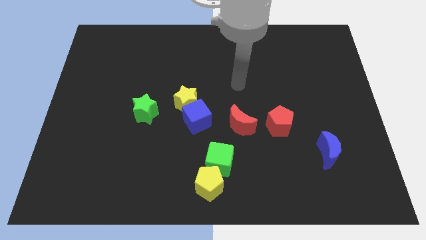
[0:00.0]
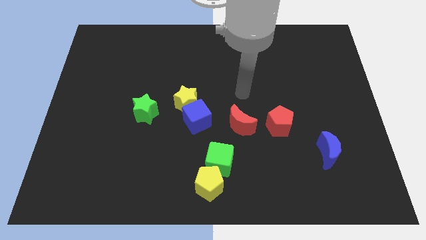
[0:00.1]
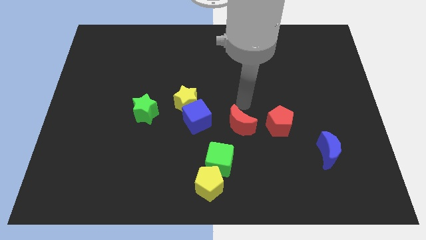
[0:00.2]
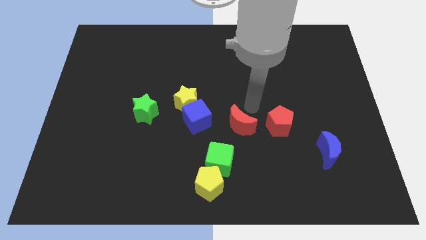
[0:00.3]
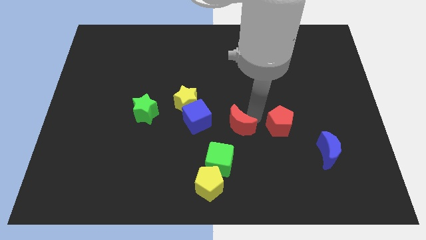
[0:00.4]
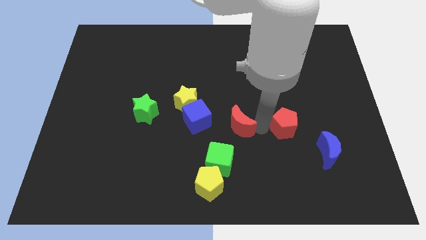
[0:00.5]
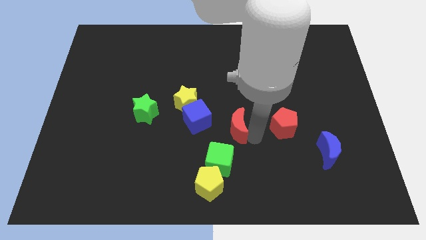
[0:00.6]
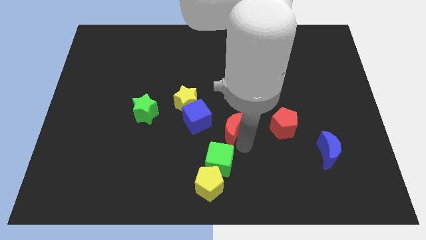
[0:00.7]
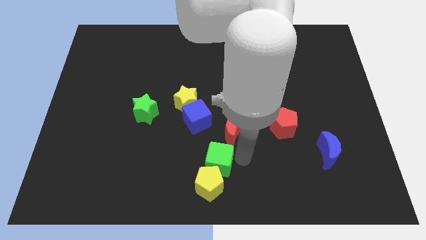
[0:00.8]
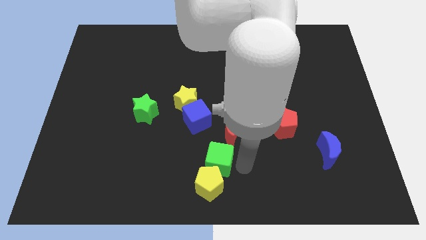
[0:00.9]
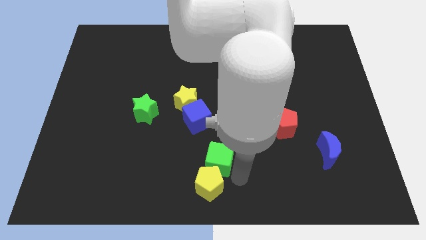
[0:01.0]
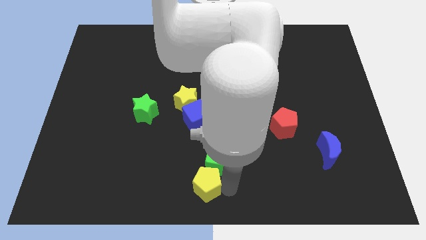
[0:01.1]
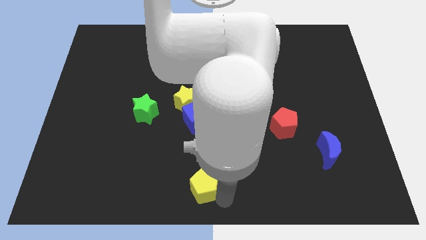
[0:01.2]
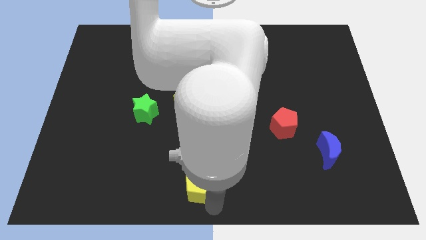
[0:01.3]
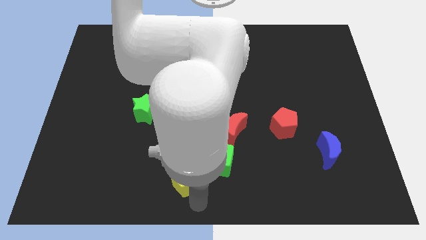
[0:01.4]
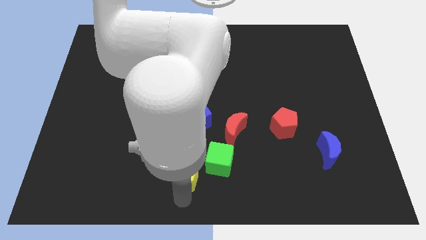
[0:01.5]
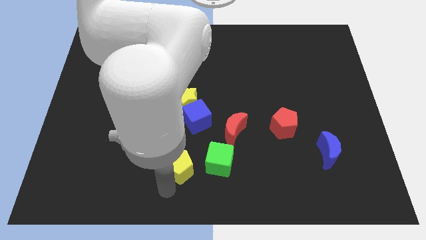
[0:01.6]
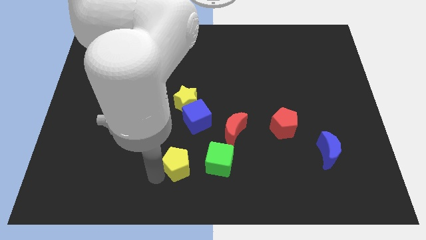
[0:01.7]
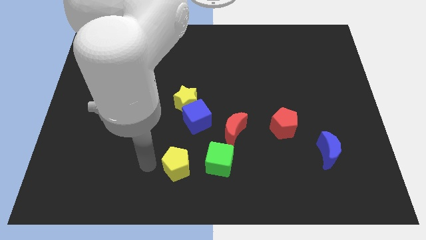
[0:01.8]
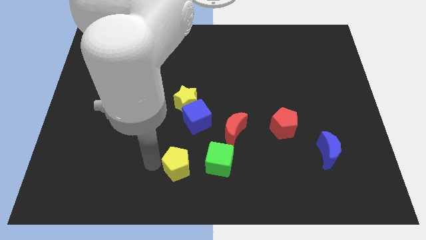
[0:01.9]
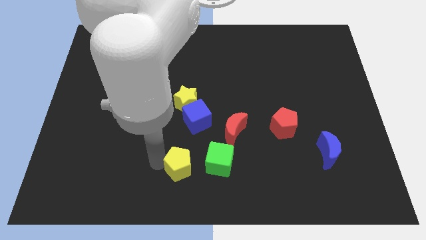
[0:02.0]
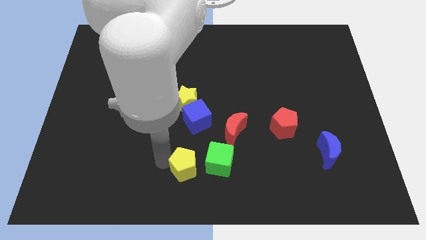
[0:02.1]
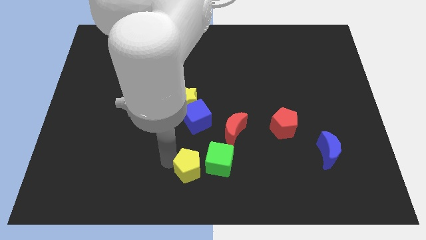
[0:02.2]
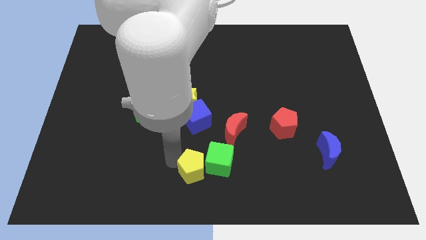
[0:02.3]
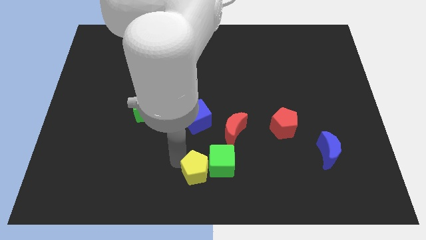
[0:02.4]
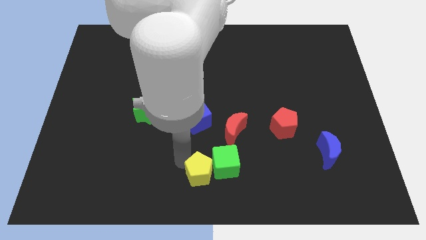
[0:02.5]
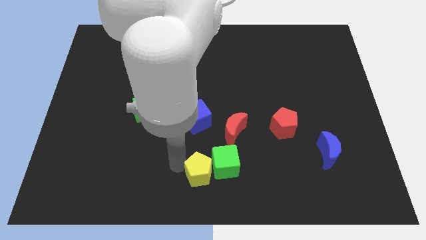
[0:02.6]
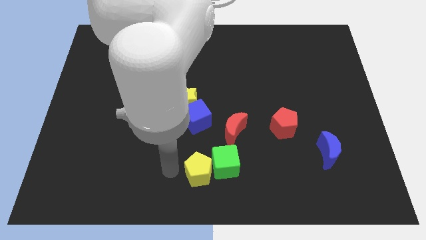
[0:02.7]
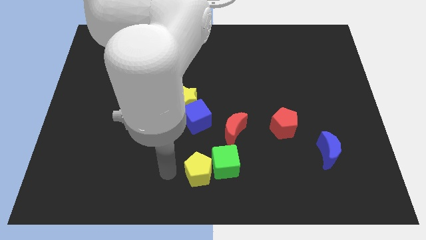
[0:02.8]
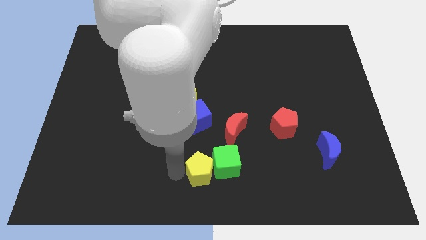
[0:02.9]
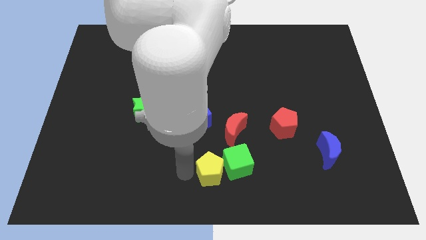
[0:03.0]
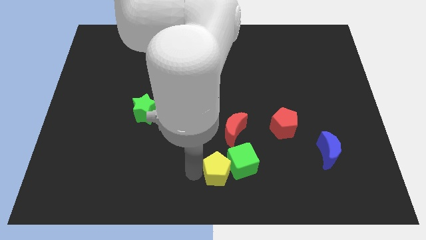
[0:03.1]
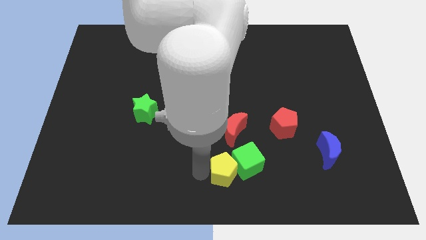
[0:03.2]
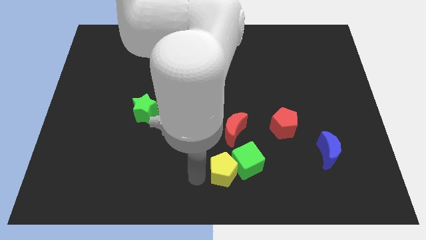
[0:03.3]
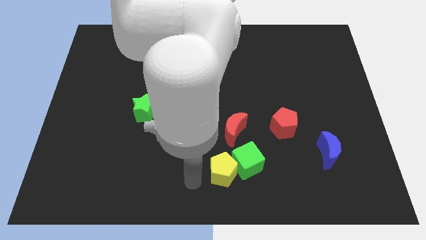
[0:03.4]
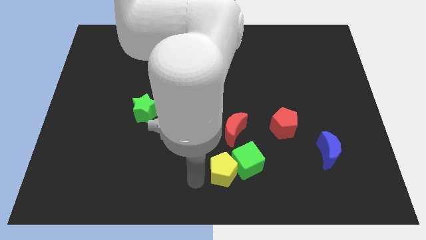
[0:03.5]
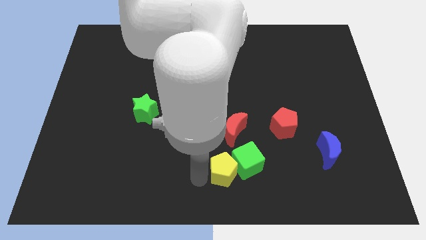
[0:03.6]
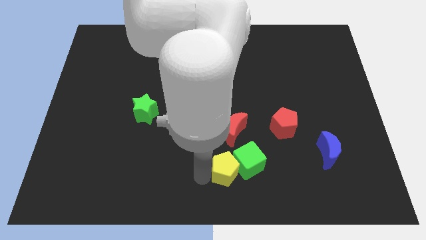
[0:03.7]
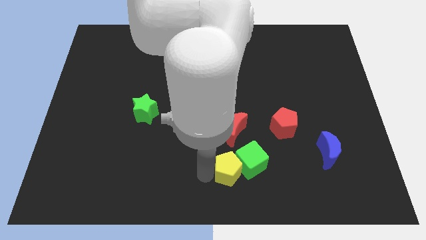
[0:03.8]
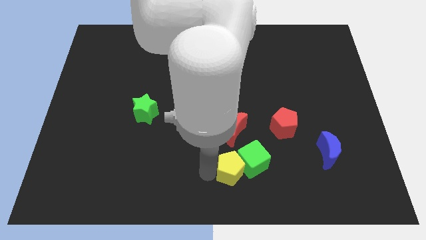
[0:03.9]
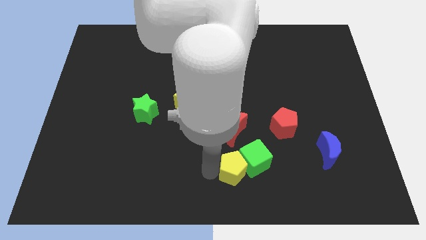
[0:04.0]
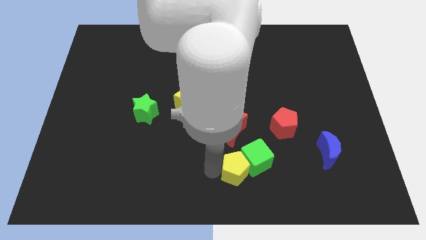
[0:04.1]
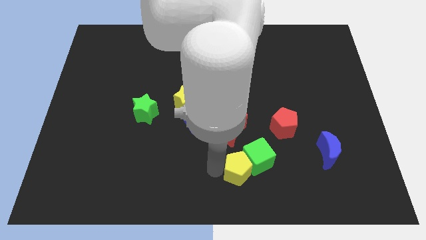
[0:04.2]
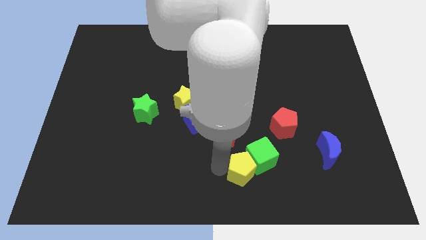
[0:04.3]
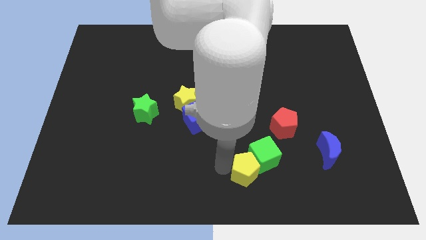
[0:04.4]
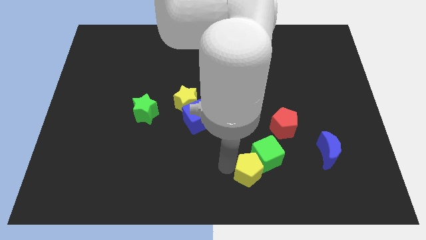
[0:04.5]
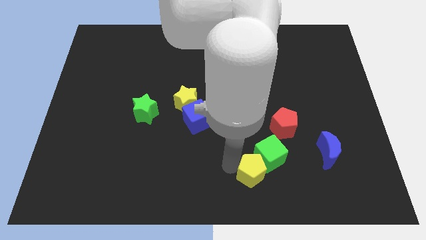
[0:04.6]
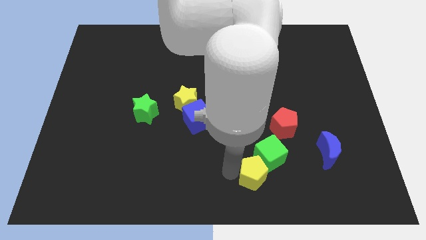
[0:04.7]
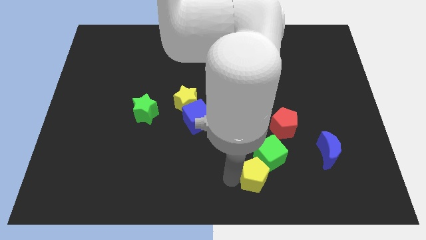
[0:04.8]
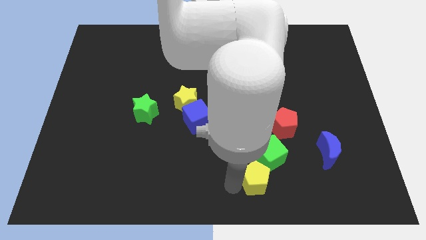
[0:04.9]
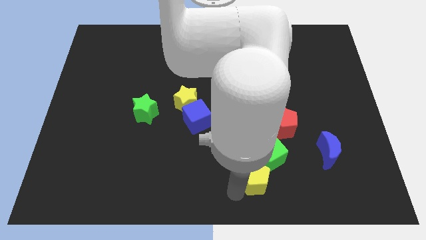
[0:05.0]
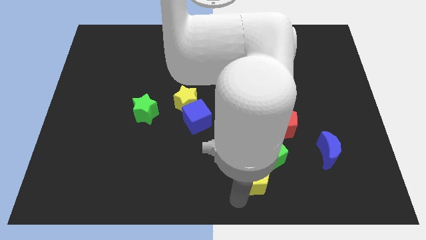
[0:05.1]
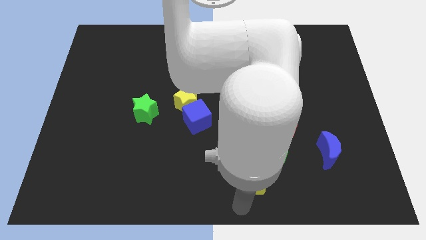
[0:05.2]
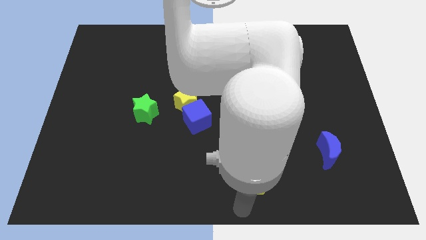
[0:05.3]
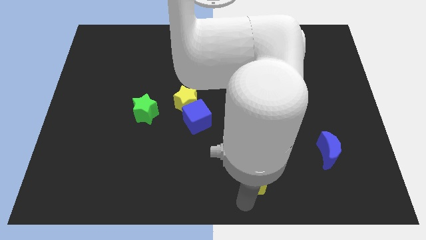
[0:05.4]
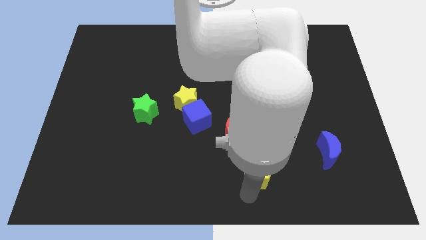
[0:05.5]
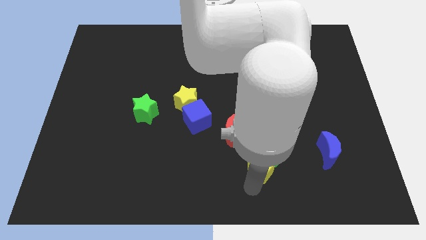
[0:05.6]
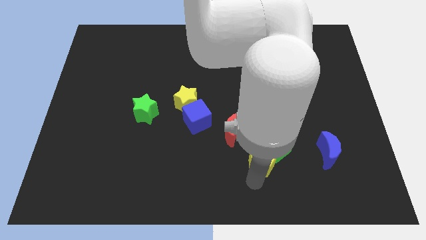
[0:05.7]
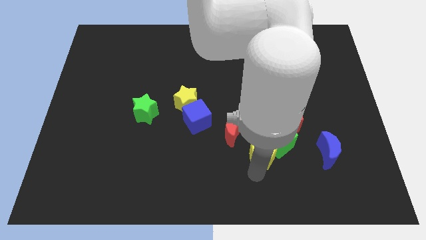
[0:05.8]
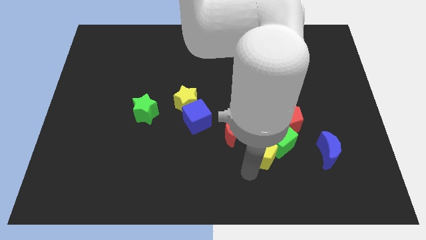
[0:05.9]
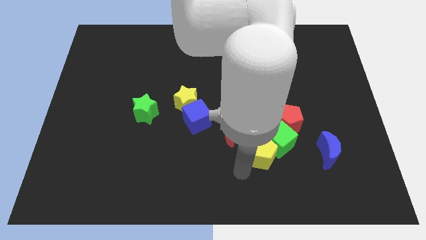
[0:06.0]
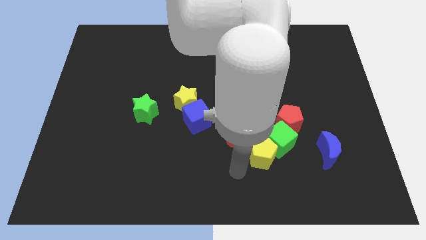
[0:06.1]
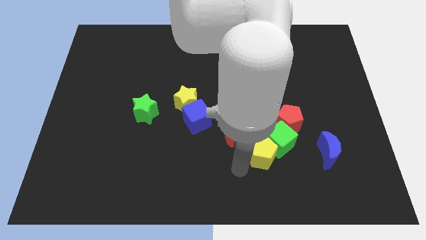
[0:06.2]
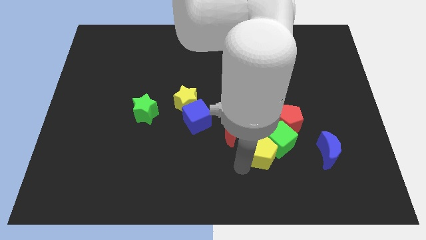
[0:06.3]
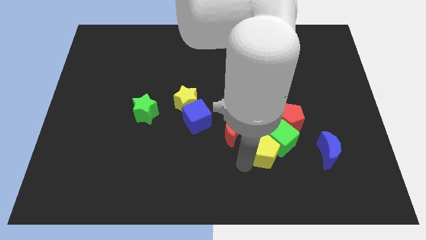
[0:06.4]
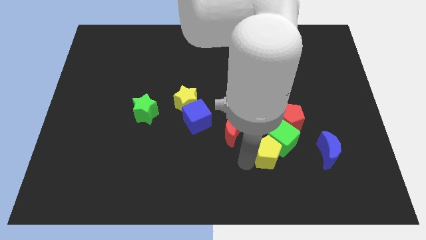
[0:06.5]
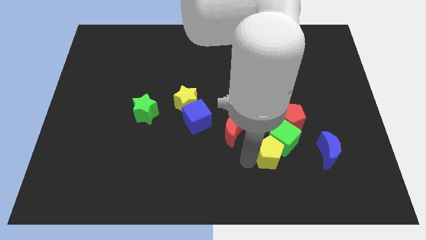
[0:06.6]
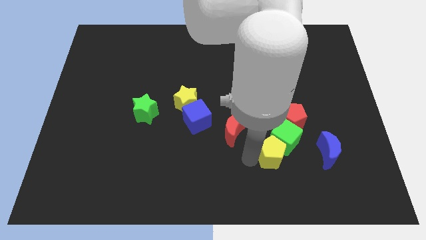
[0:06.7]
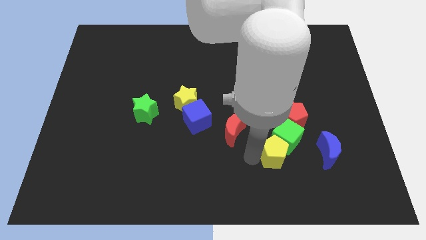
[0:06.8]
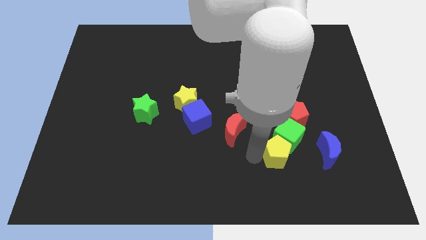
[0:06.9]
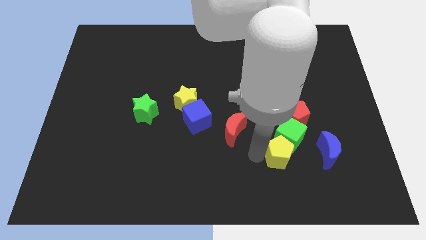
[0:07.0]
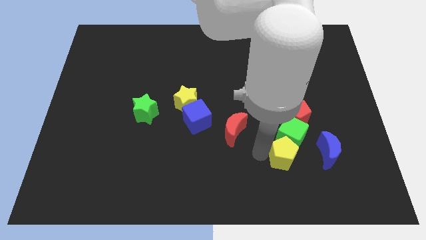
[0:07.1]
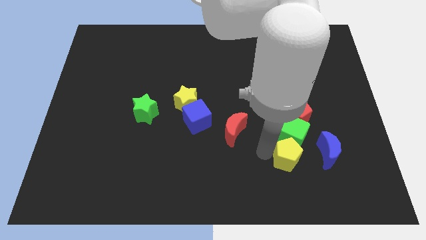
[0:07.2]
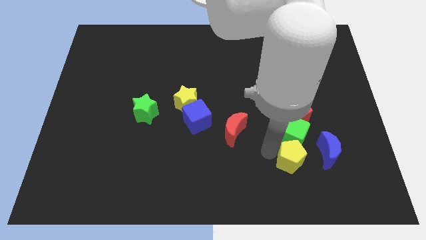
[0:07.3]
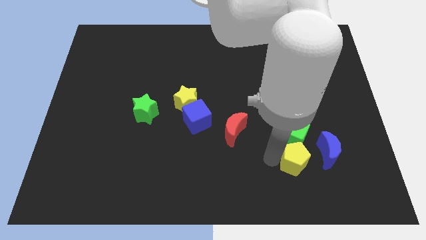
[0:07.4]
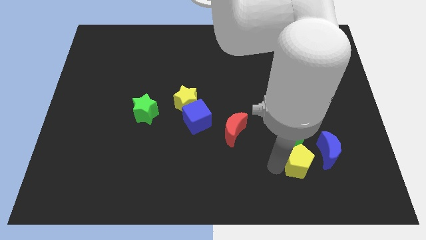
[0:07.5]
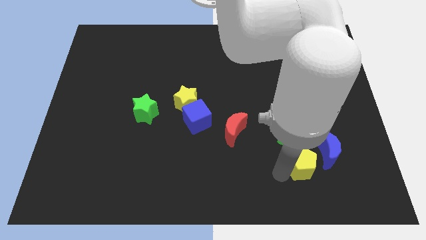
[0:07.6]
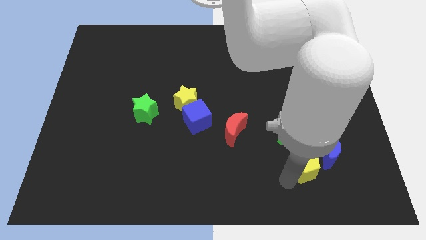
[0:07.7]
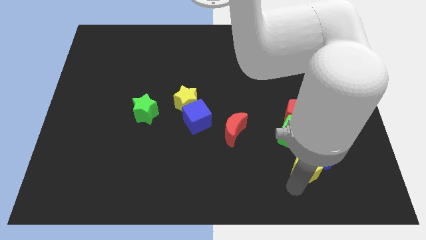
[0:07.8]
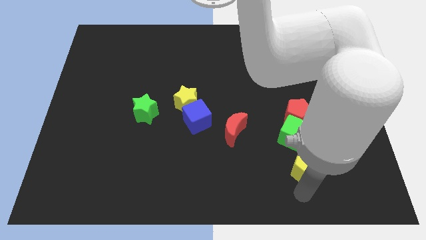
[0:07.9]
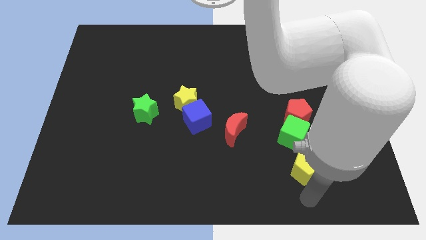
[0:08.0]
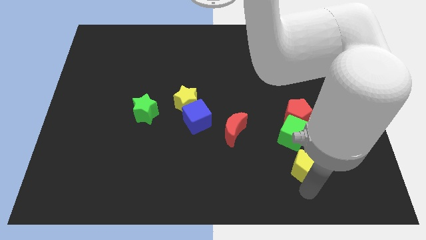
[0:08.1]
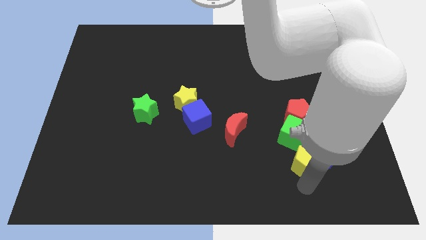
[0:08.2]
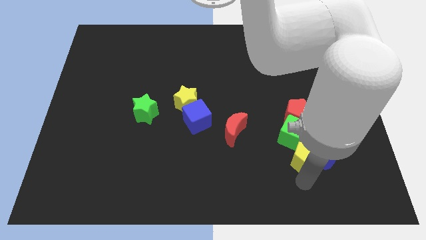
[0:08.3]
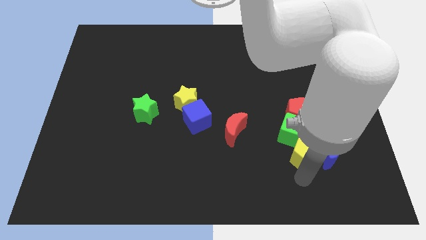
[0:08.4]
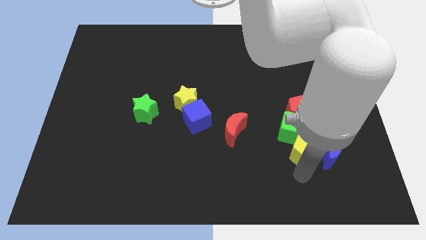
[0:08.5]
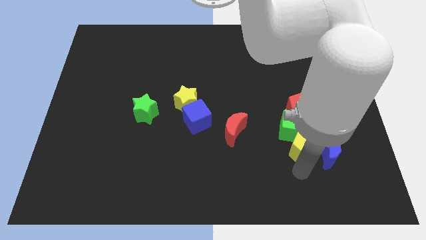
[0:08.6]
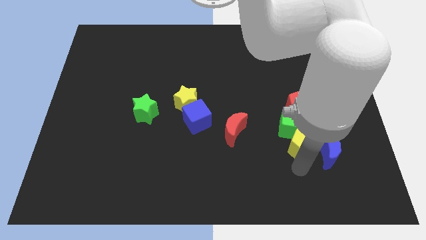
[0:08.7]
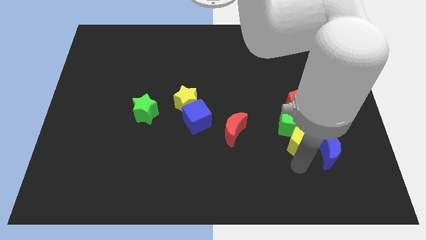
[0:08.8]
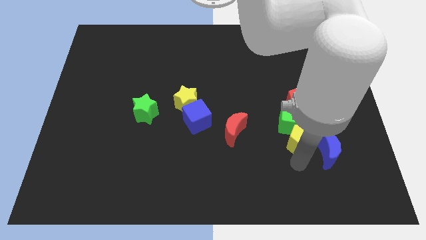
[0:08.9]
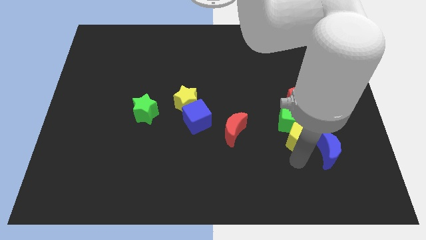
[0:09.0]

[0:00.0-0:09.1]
move the yellow pentagon upwards and to the right diagonally
